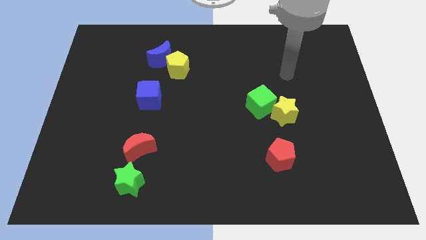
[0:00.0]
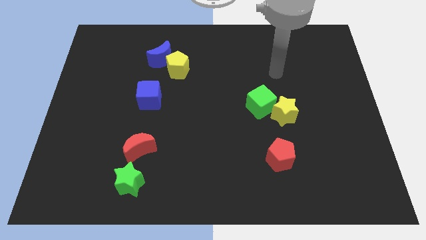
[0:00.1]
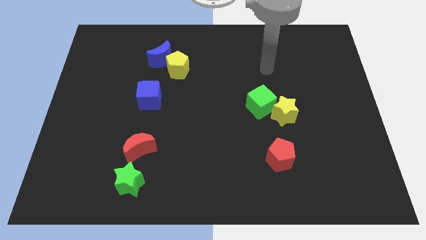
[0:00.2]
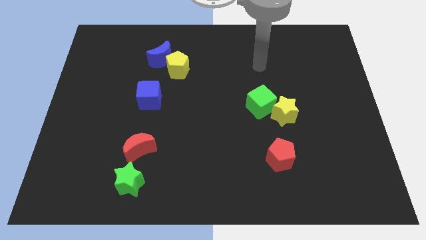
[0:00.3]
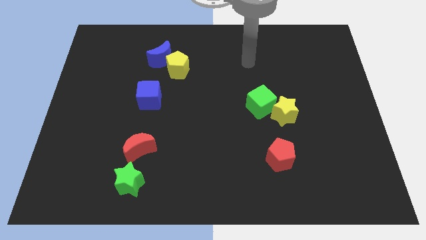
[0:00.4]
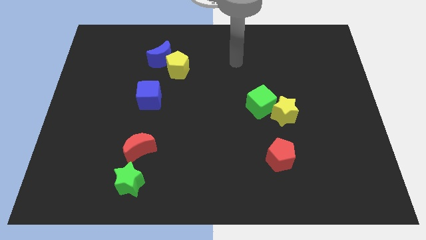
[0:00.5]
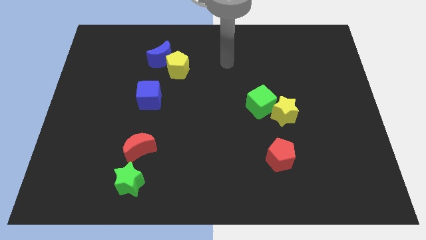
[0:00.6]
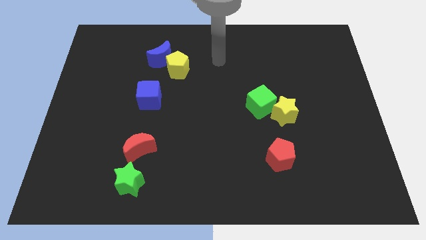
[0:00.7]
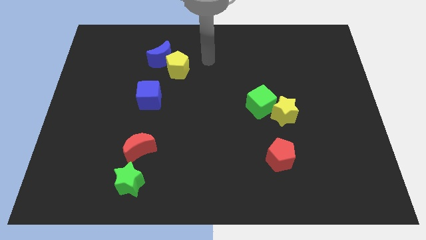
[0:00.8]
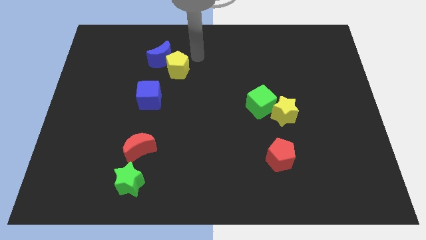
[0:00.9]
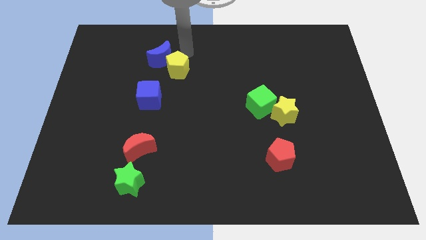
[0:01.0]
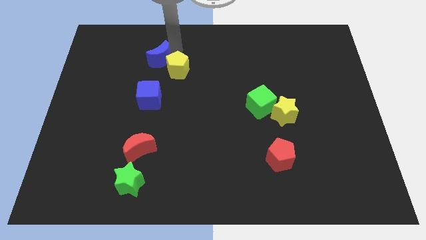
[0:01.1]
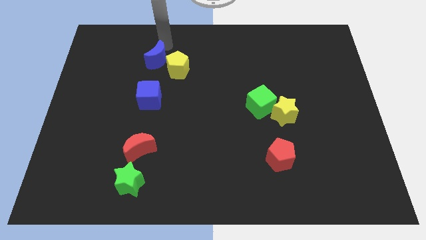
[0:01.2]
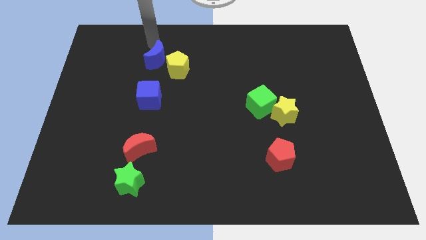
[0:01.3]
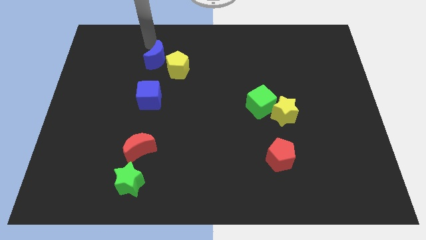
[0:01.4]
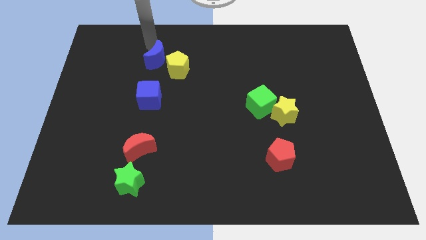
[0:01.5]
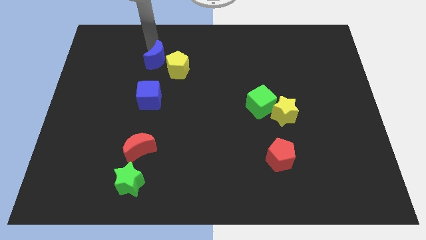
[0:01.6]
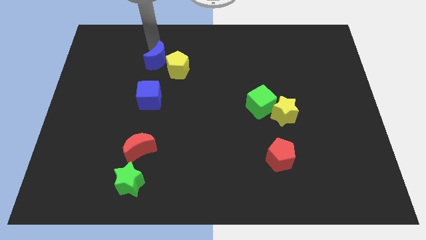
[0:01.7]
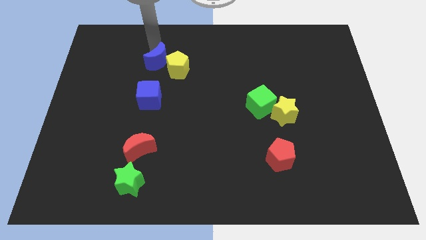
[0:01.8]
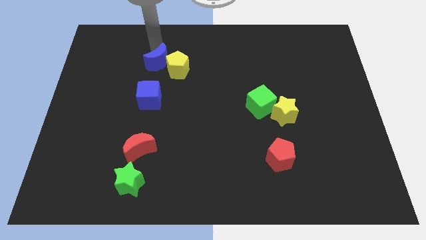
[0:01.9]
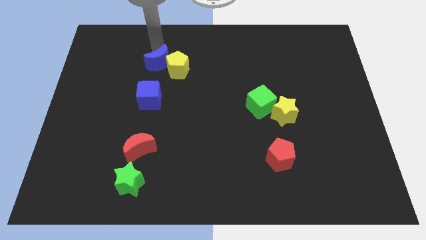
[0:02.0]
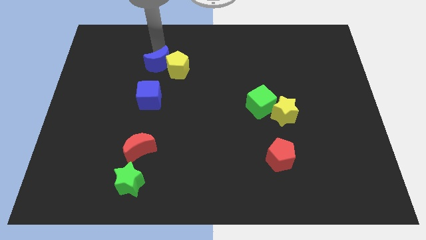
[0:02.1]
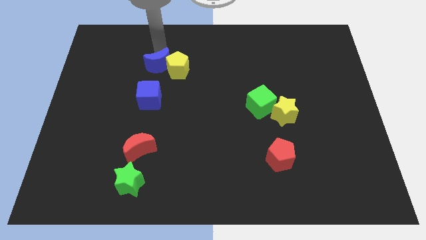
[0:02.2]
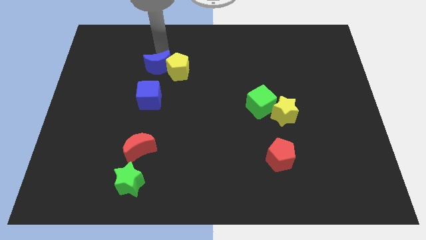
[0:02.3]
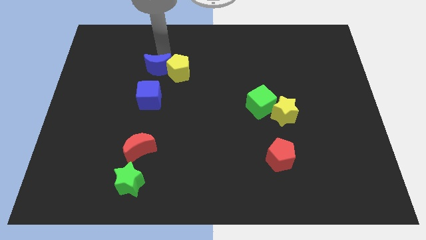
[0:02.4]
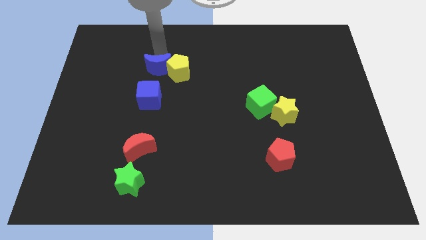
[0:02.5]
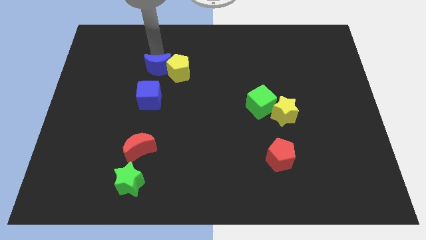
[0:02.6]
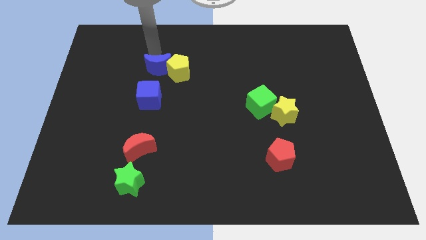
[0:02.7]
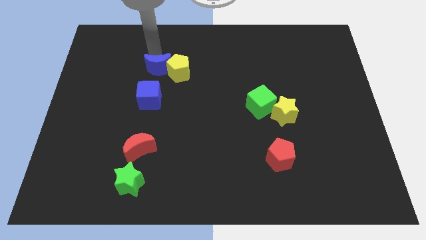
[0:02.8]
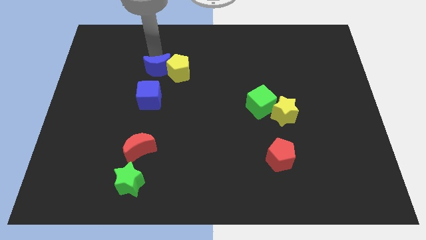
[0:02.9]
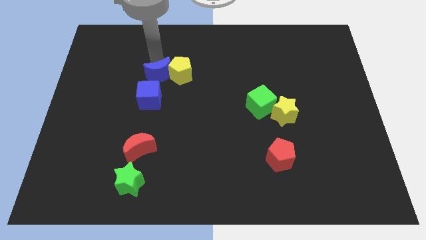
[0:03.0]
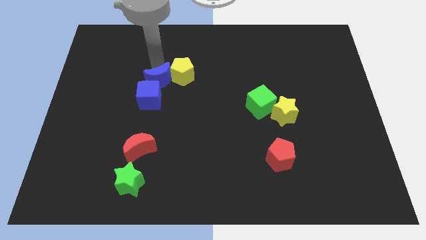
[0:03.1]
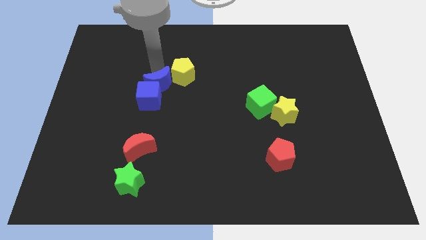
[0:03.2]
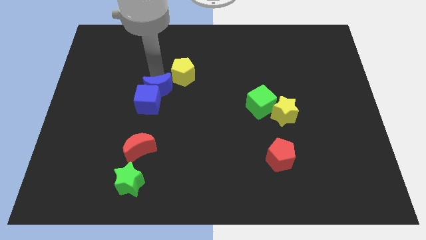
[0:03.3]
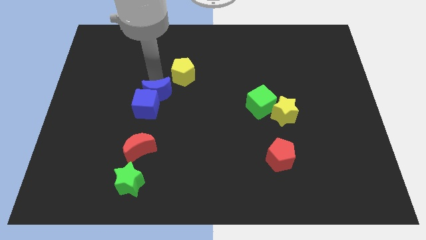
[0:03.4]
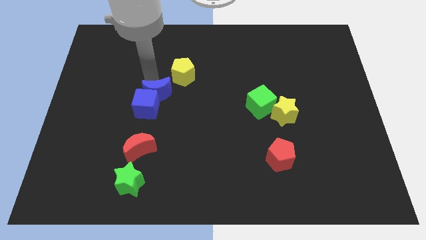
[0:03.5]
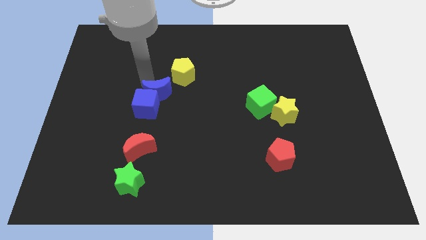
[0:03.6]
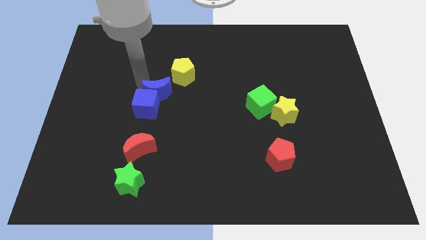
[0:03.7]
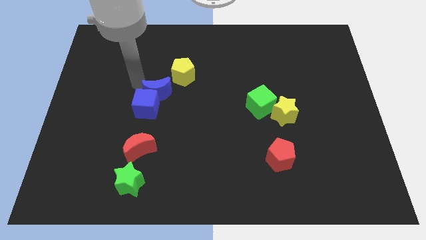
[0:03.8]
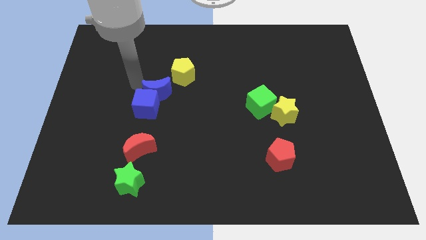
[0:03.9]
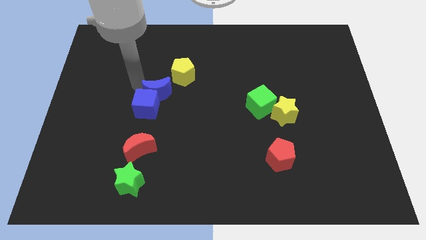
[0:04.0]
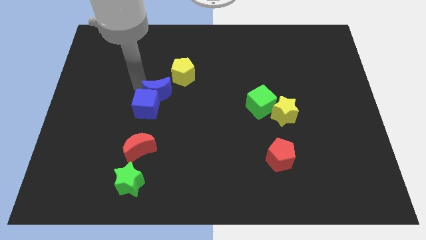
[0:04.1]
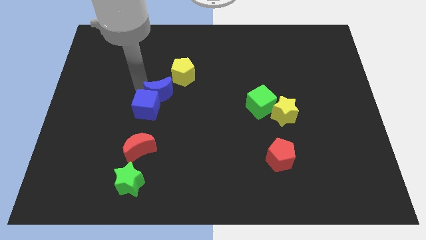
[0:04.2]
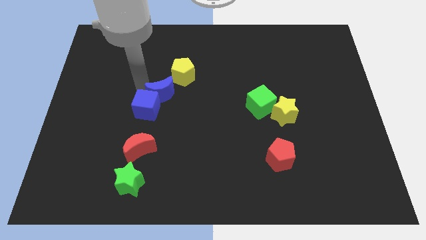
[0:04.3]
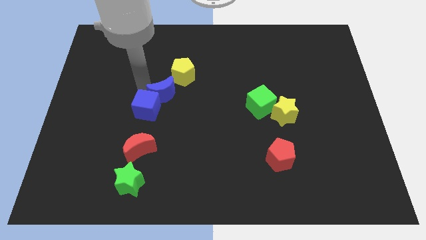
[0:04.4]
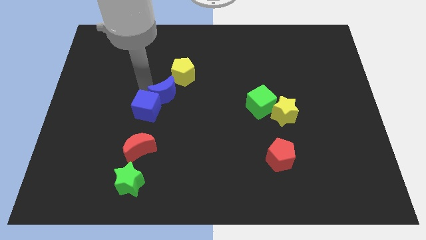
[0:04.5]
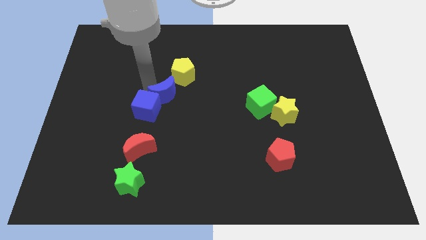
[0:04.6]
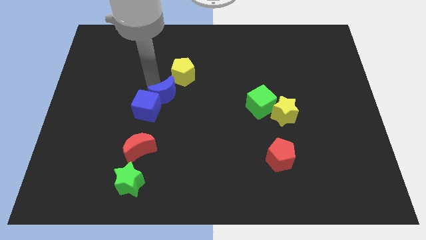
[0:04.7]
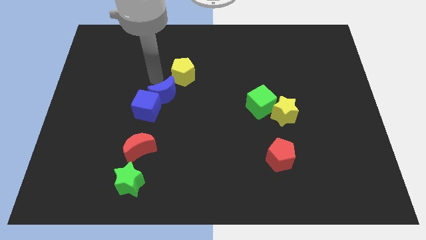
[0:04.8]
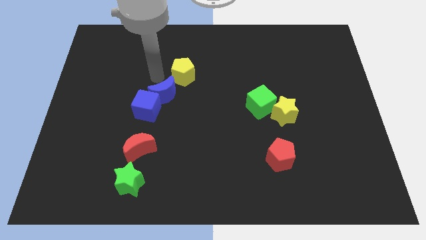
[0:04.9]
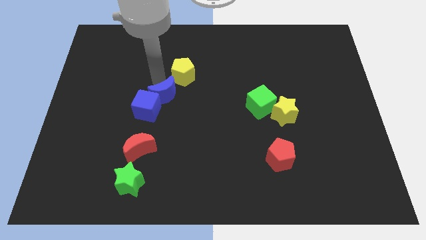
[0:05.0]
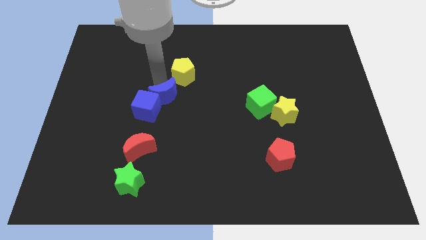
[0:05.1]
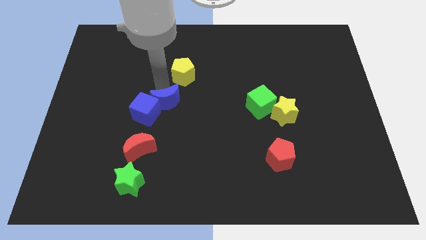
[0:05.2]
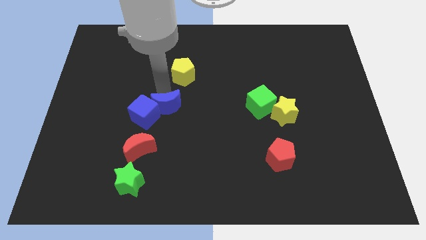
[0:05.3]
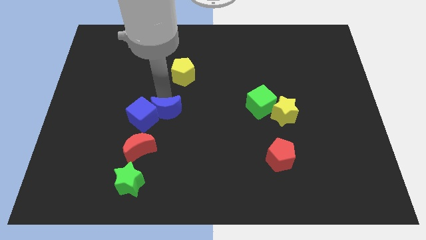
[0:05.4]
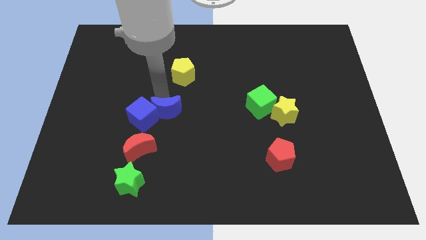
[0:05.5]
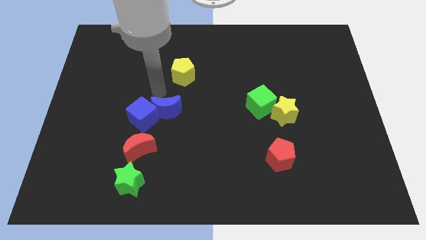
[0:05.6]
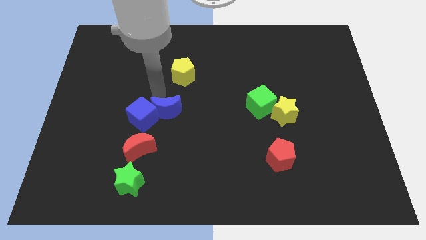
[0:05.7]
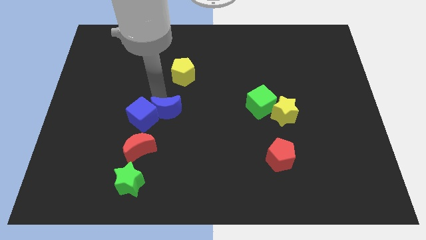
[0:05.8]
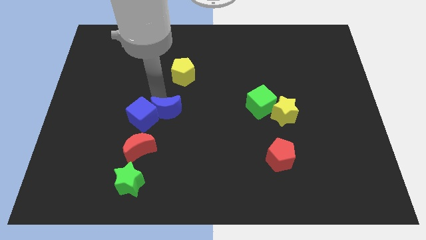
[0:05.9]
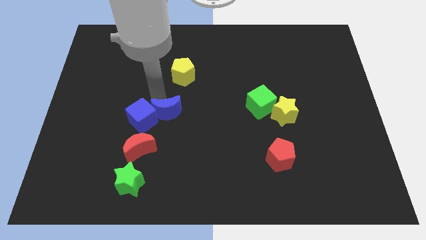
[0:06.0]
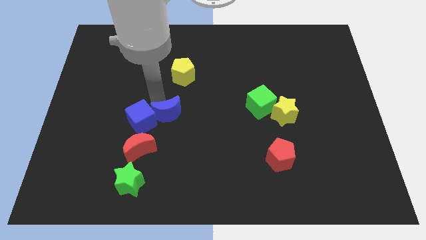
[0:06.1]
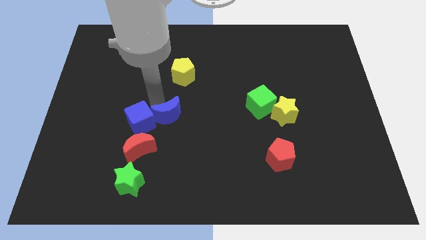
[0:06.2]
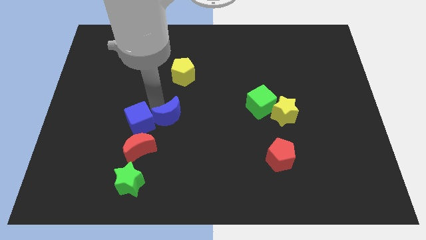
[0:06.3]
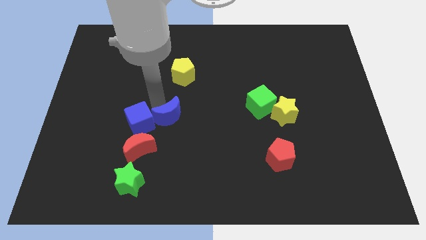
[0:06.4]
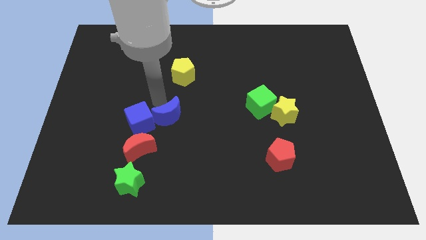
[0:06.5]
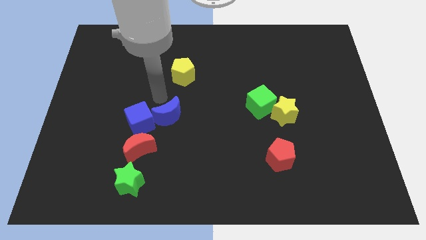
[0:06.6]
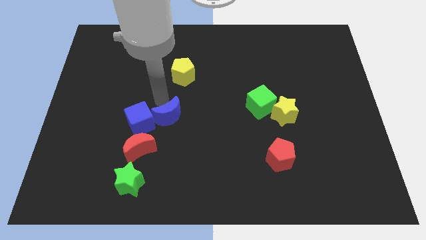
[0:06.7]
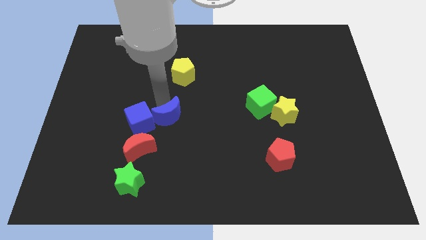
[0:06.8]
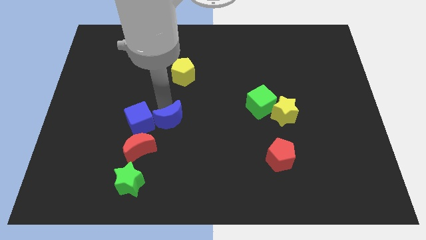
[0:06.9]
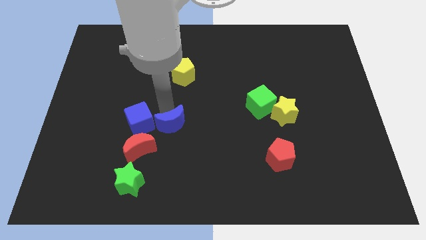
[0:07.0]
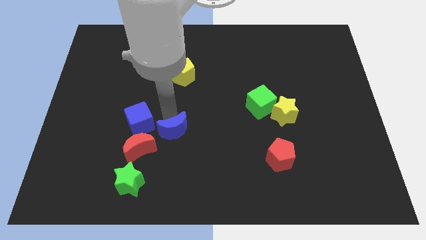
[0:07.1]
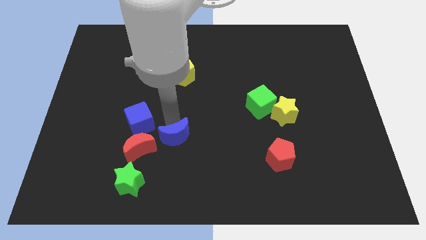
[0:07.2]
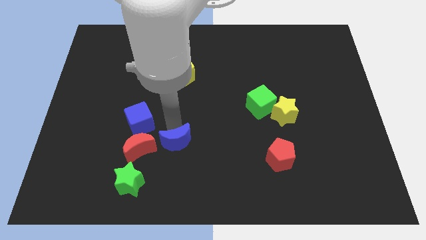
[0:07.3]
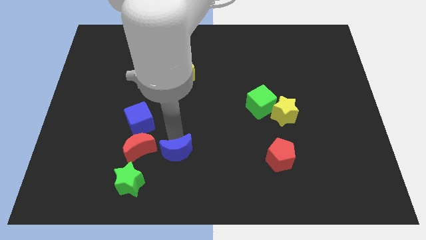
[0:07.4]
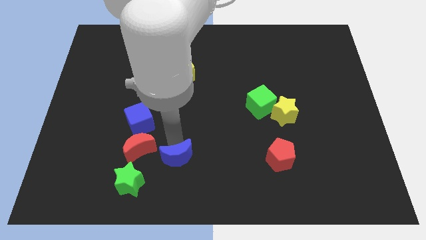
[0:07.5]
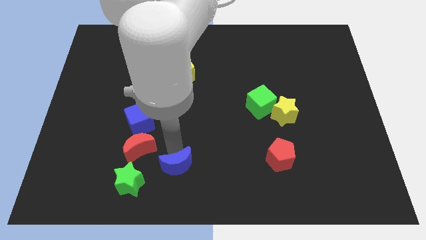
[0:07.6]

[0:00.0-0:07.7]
push the blue moon to the bottom side
